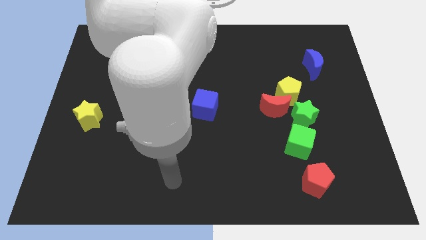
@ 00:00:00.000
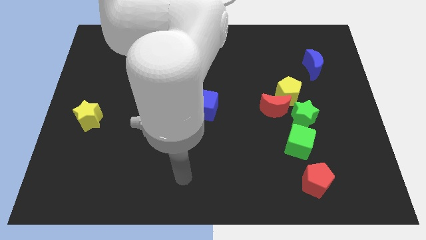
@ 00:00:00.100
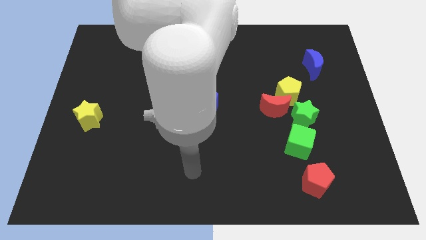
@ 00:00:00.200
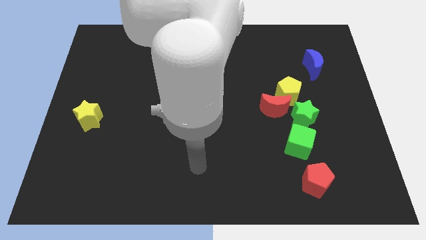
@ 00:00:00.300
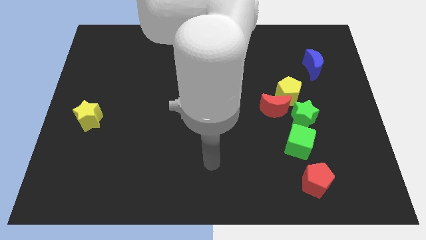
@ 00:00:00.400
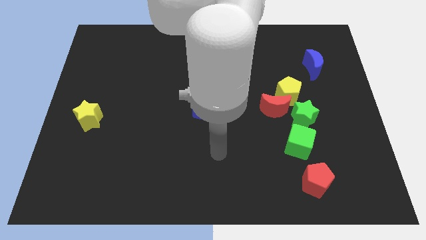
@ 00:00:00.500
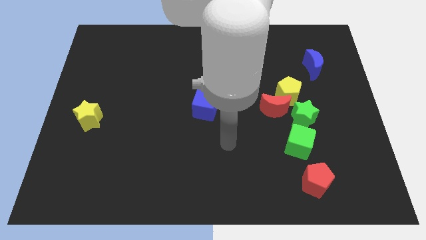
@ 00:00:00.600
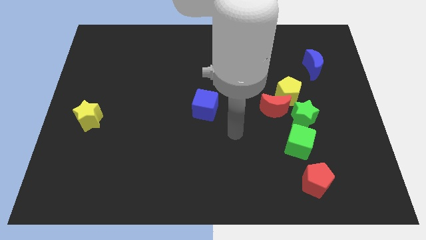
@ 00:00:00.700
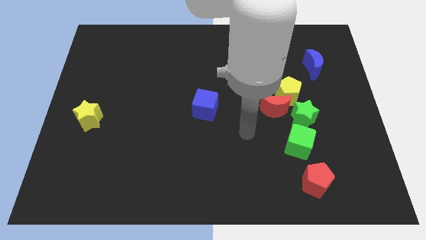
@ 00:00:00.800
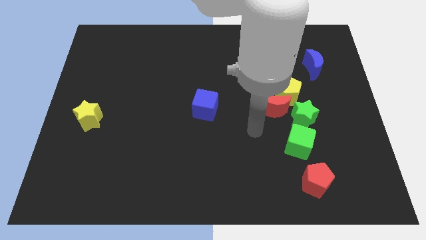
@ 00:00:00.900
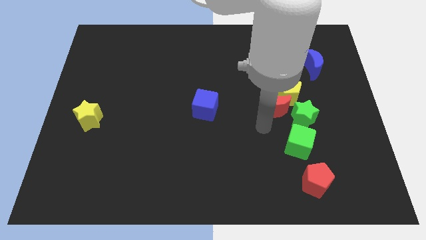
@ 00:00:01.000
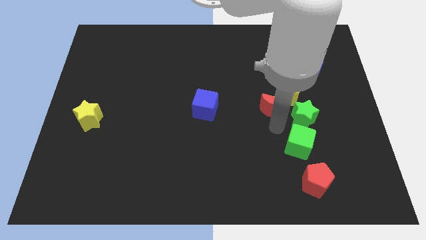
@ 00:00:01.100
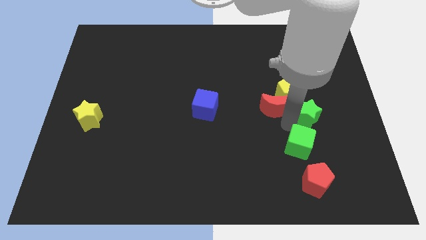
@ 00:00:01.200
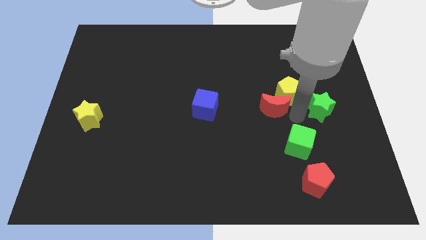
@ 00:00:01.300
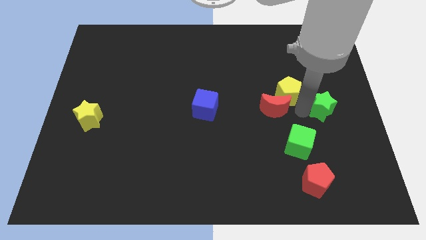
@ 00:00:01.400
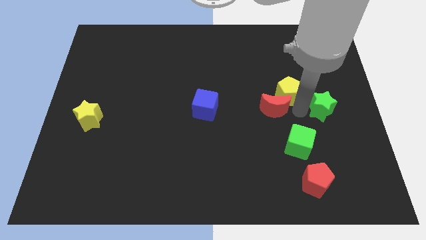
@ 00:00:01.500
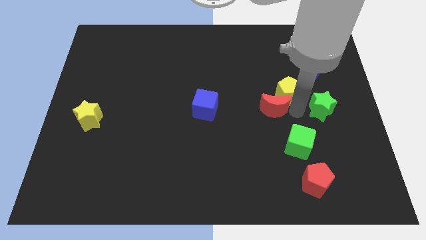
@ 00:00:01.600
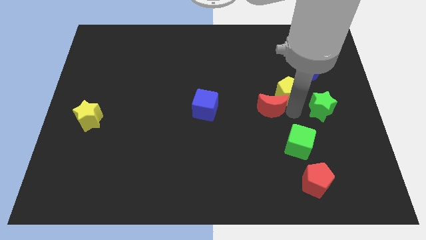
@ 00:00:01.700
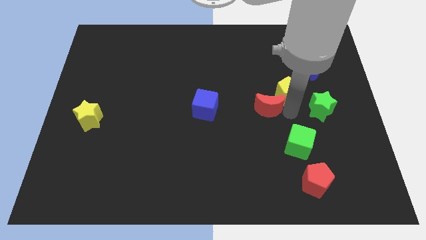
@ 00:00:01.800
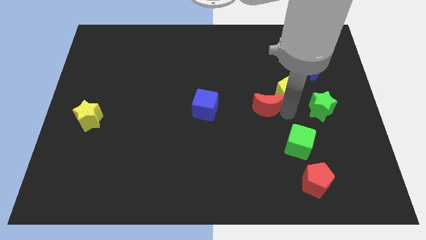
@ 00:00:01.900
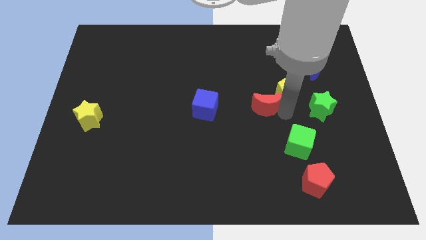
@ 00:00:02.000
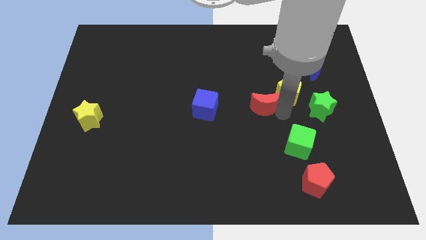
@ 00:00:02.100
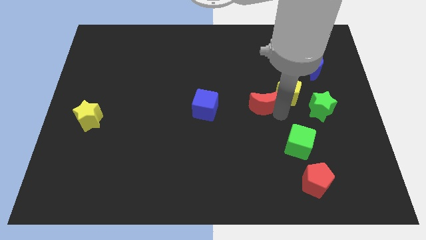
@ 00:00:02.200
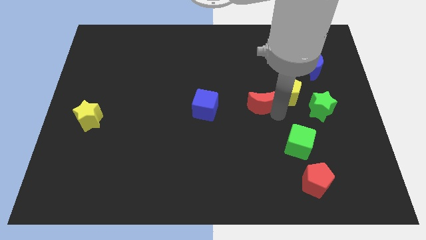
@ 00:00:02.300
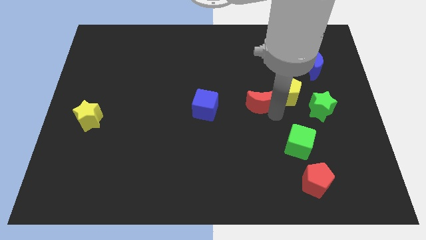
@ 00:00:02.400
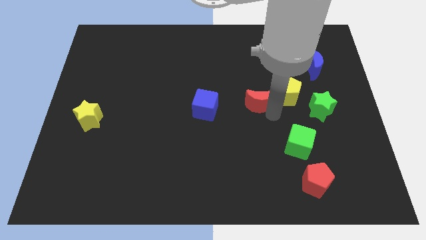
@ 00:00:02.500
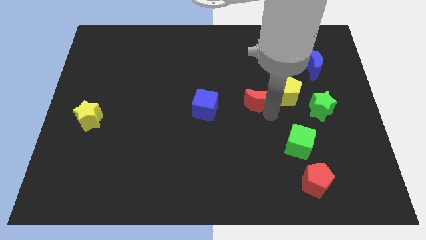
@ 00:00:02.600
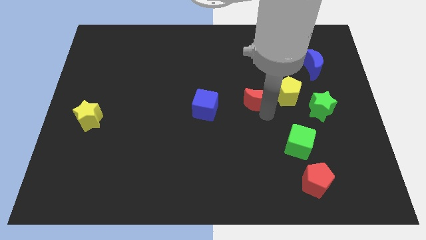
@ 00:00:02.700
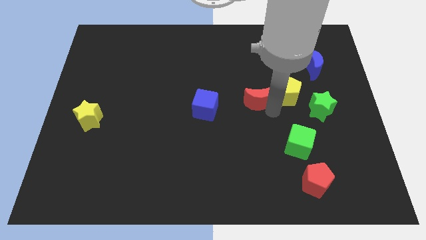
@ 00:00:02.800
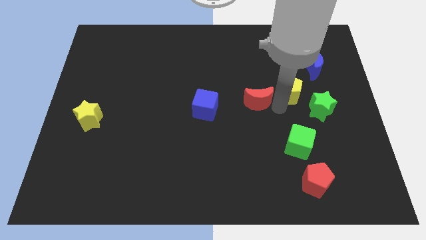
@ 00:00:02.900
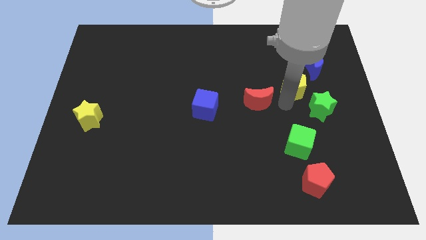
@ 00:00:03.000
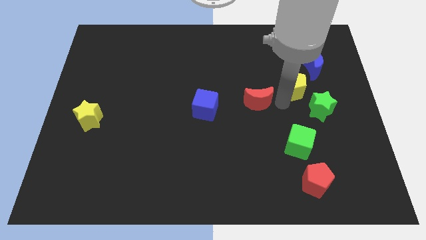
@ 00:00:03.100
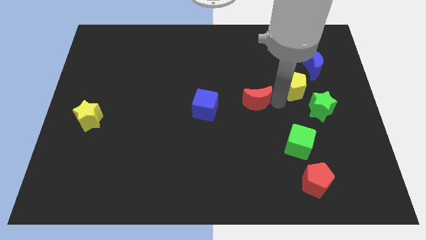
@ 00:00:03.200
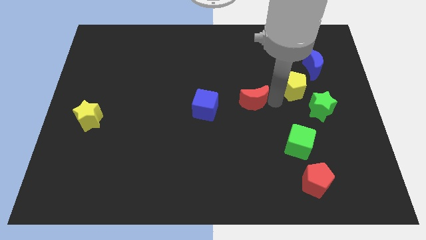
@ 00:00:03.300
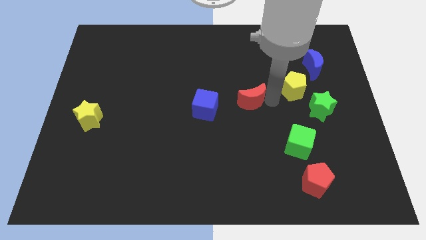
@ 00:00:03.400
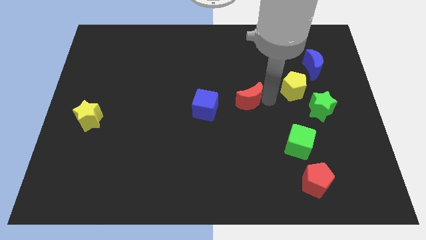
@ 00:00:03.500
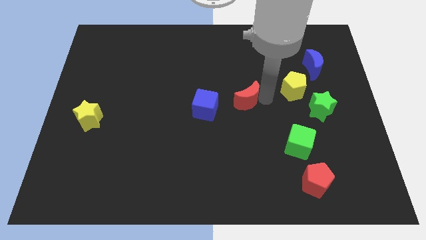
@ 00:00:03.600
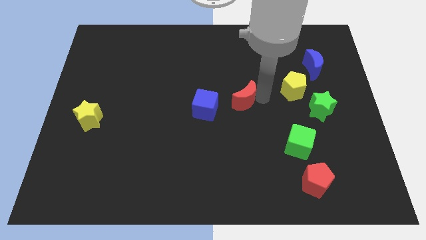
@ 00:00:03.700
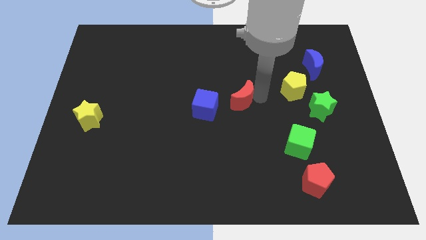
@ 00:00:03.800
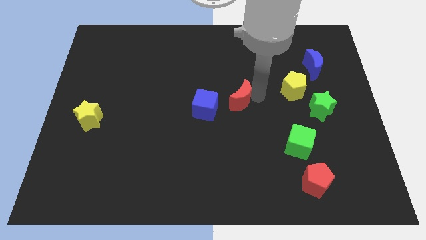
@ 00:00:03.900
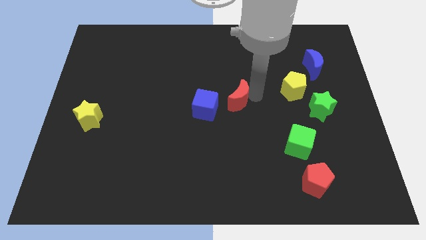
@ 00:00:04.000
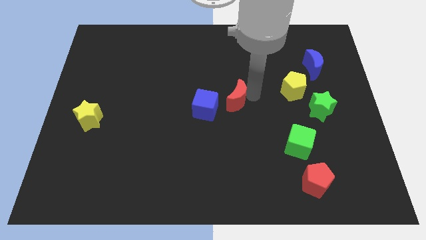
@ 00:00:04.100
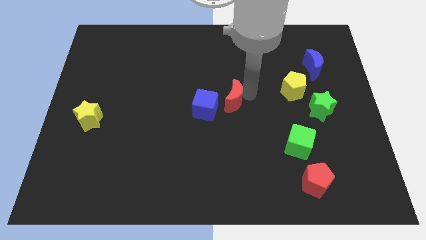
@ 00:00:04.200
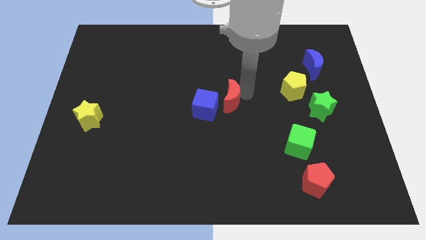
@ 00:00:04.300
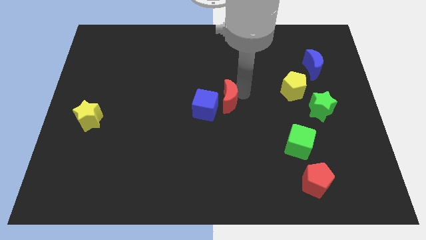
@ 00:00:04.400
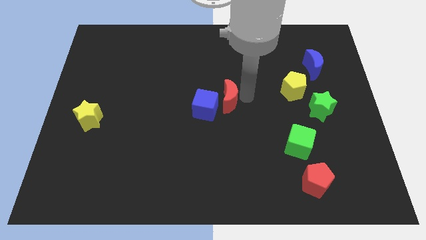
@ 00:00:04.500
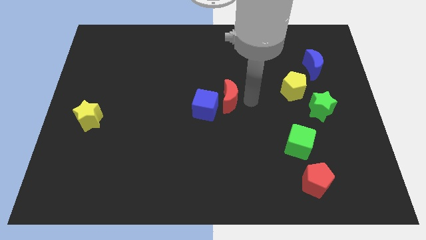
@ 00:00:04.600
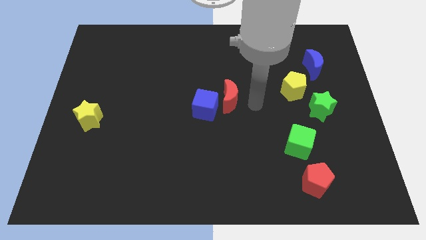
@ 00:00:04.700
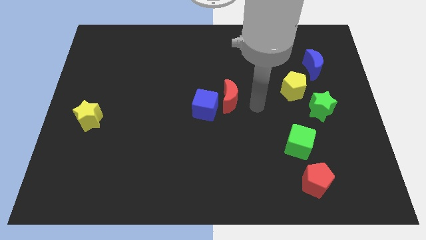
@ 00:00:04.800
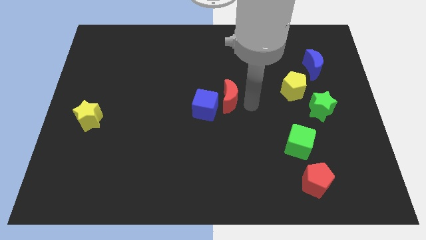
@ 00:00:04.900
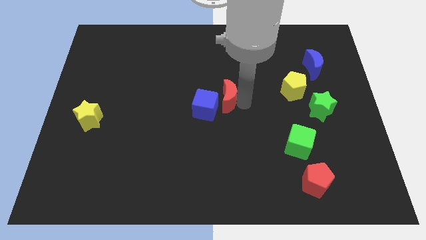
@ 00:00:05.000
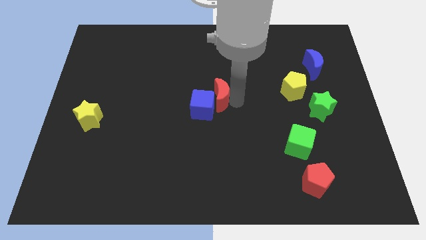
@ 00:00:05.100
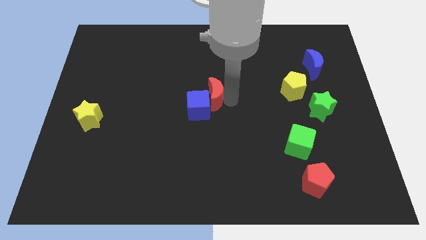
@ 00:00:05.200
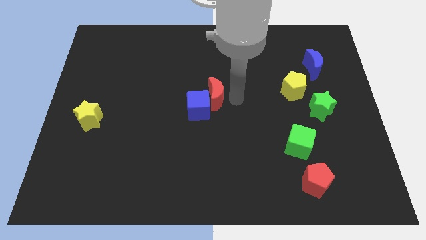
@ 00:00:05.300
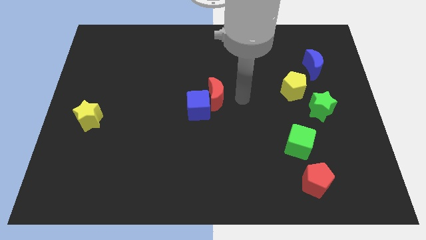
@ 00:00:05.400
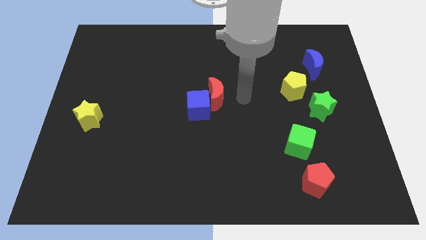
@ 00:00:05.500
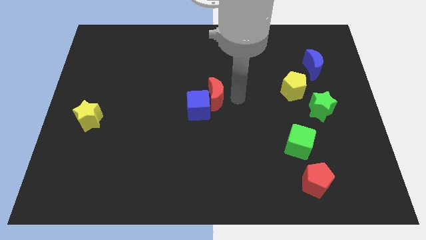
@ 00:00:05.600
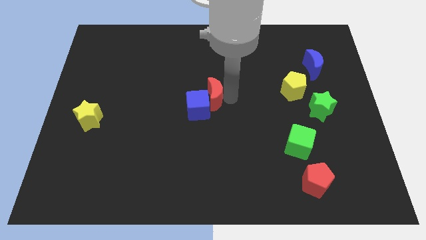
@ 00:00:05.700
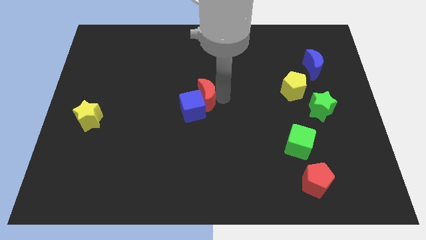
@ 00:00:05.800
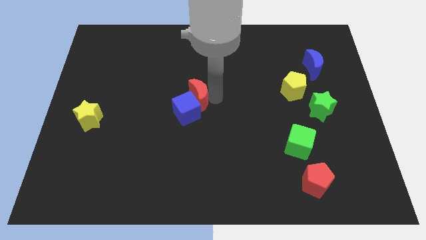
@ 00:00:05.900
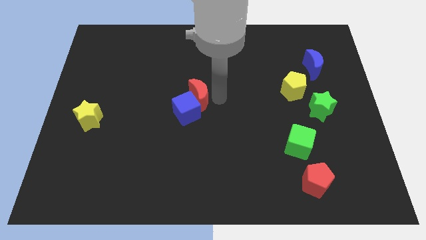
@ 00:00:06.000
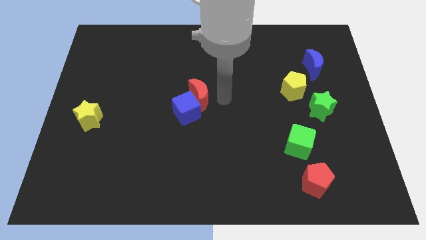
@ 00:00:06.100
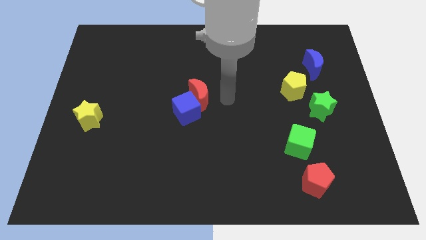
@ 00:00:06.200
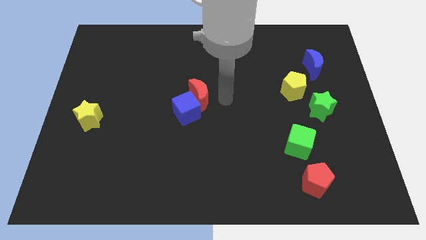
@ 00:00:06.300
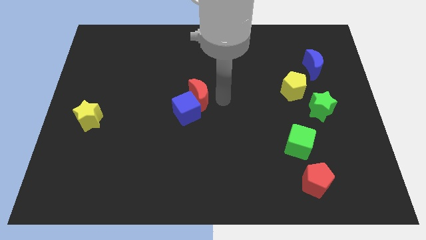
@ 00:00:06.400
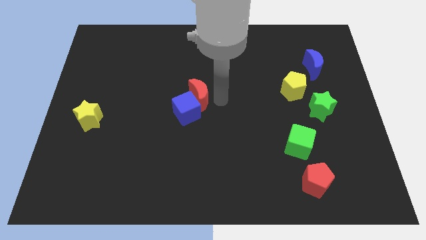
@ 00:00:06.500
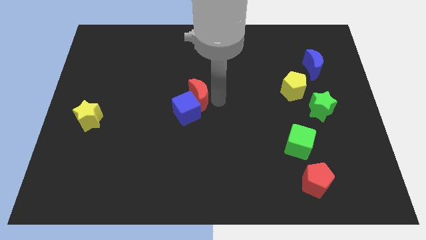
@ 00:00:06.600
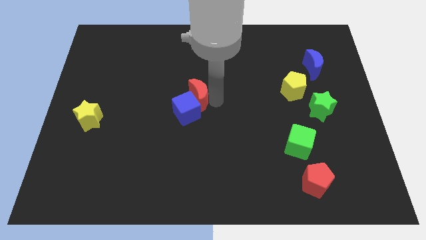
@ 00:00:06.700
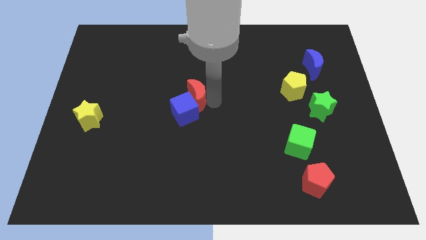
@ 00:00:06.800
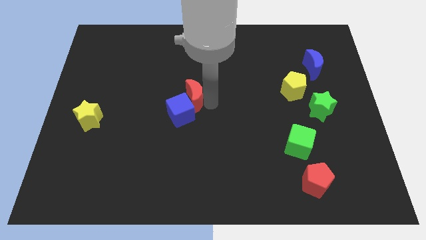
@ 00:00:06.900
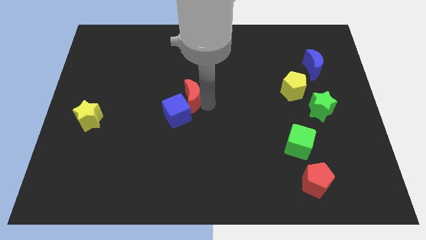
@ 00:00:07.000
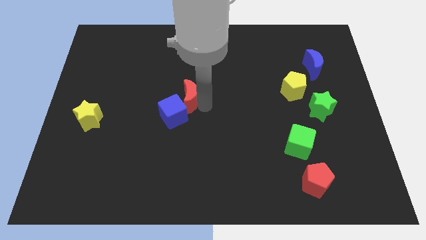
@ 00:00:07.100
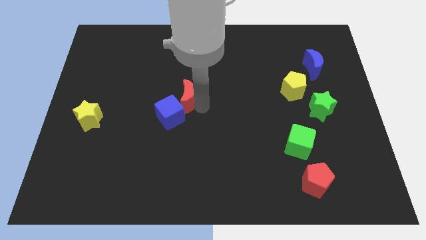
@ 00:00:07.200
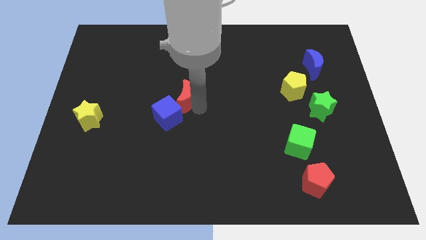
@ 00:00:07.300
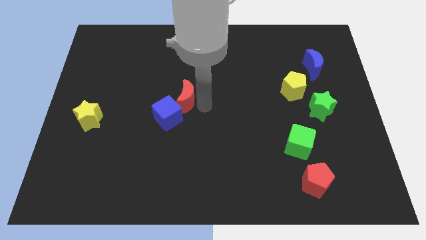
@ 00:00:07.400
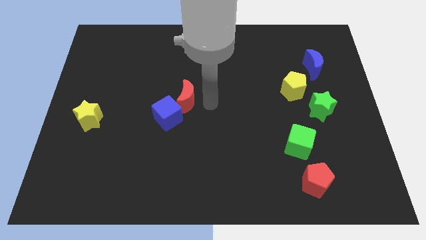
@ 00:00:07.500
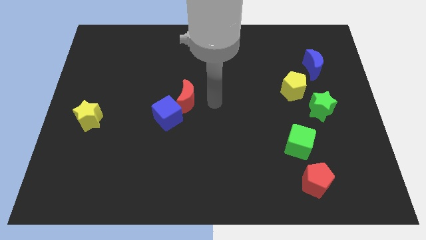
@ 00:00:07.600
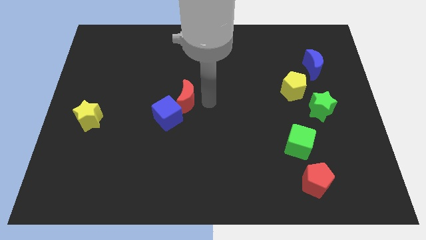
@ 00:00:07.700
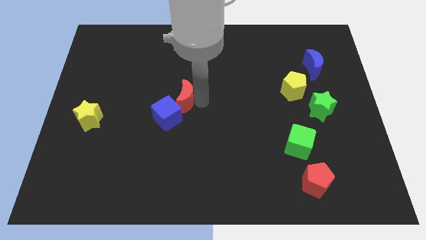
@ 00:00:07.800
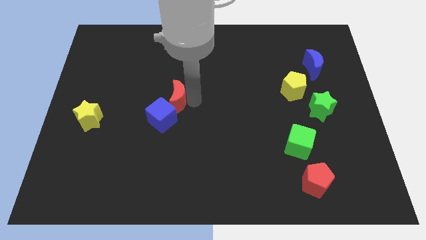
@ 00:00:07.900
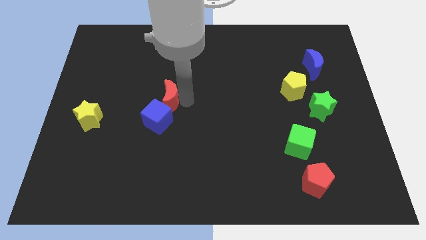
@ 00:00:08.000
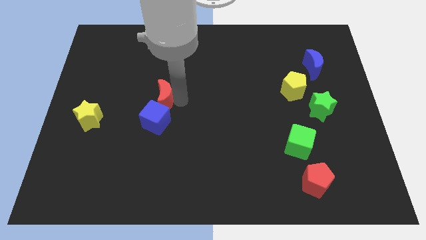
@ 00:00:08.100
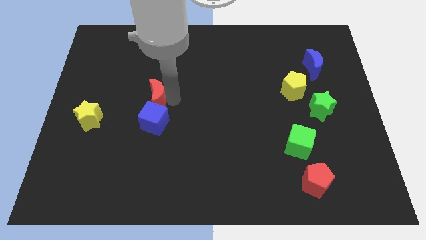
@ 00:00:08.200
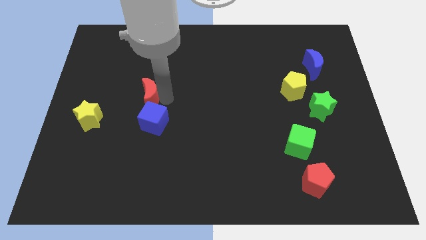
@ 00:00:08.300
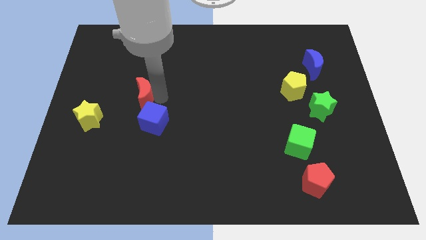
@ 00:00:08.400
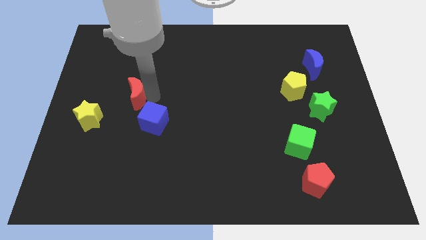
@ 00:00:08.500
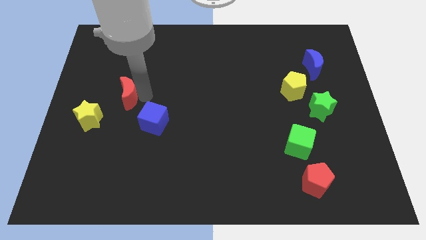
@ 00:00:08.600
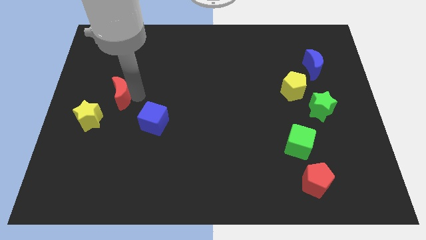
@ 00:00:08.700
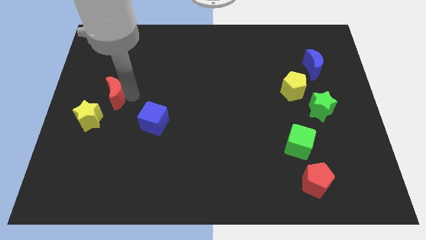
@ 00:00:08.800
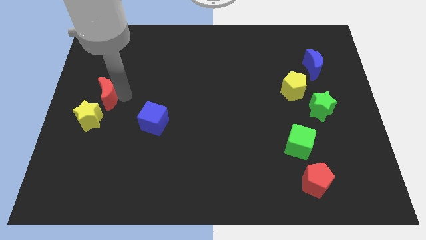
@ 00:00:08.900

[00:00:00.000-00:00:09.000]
push the red moon to the left side
